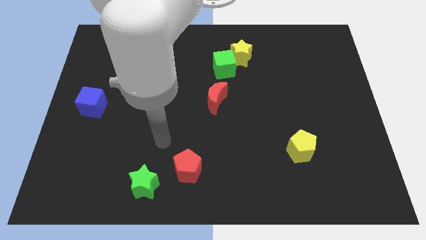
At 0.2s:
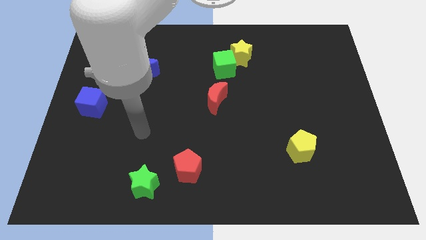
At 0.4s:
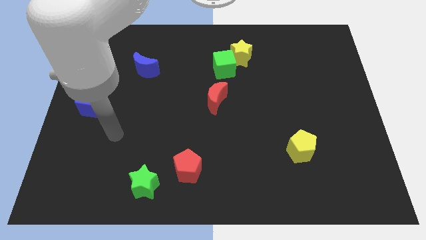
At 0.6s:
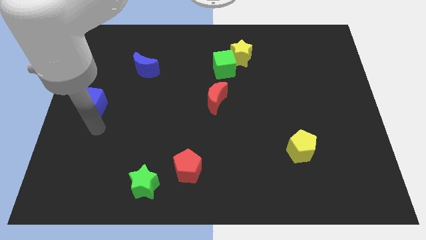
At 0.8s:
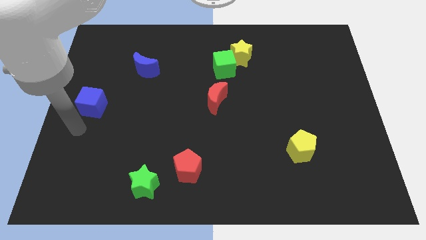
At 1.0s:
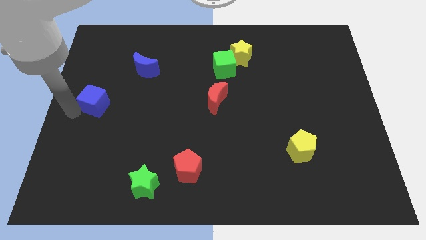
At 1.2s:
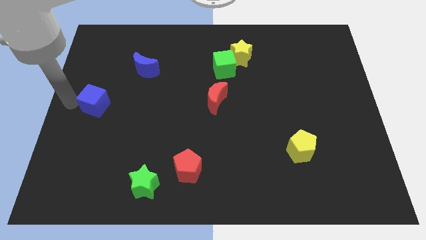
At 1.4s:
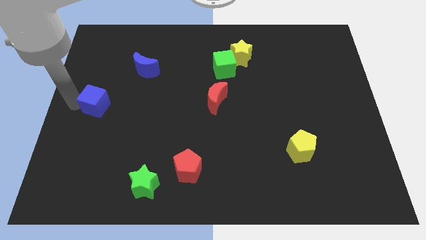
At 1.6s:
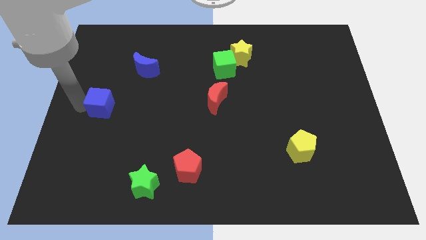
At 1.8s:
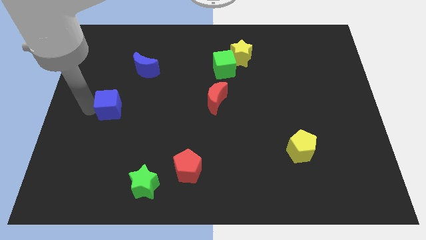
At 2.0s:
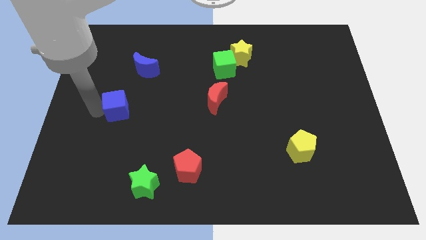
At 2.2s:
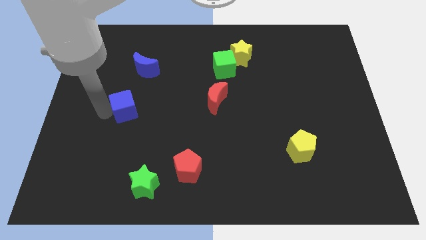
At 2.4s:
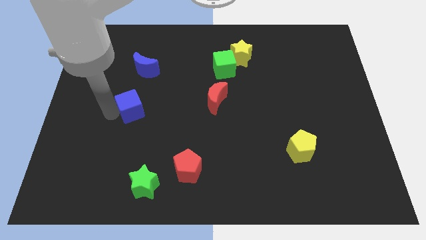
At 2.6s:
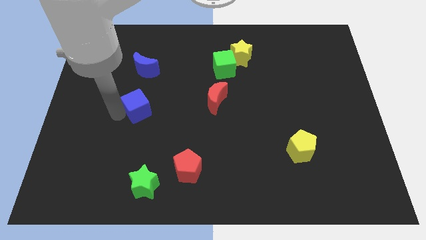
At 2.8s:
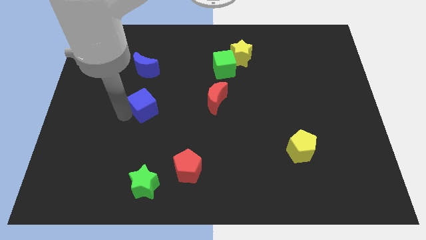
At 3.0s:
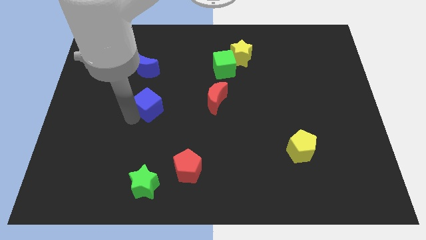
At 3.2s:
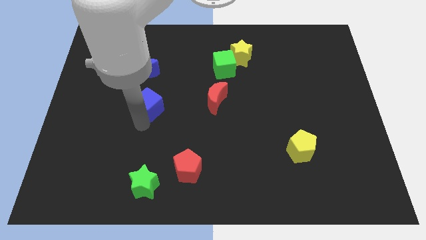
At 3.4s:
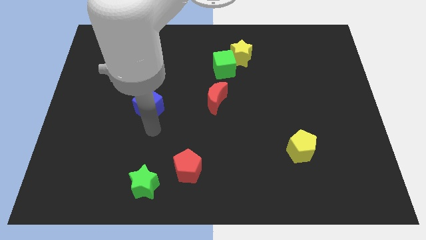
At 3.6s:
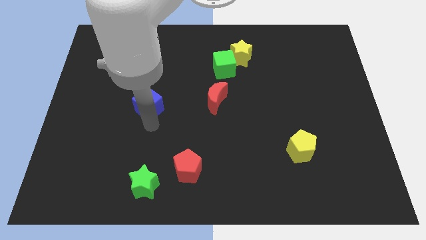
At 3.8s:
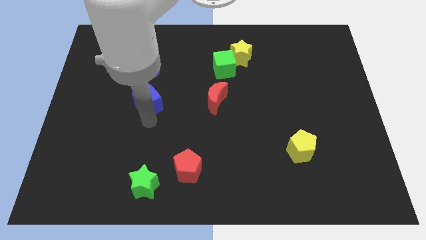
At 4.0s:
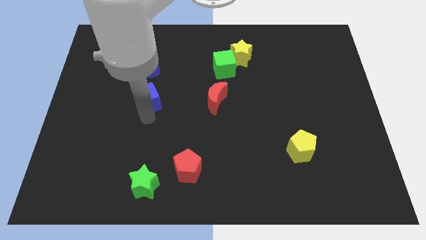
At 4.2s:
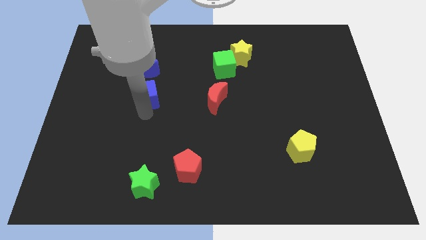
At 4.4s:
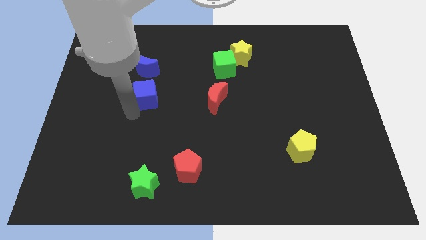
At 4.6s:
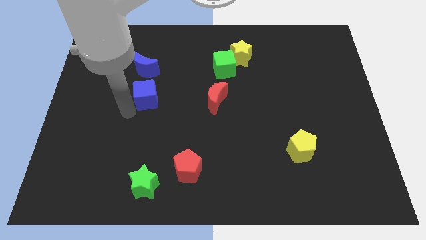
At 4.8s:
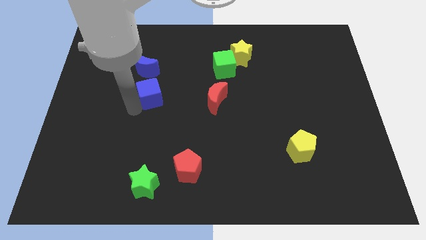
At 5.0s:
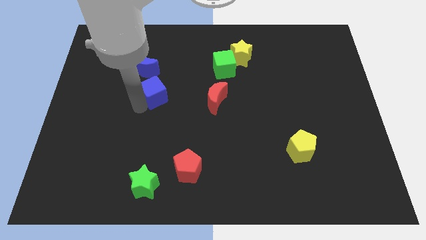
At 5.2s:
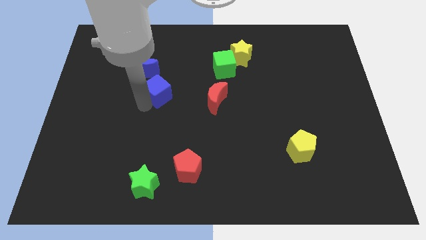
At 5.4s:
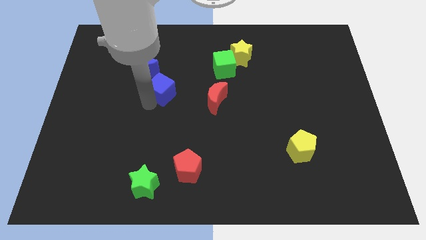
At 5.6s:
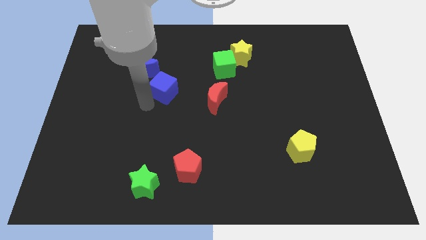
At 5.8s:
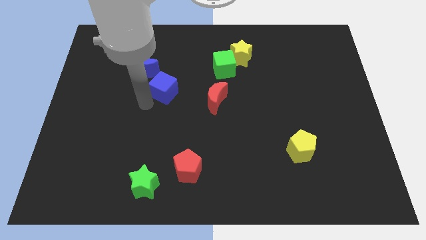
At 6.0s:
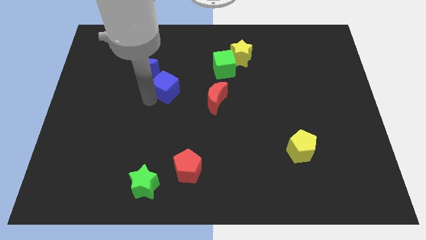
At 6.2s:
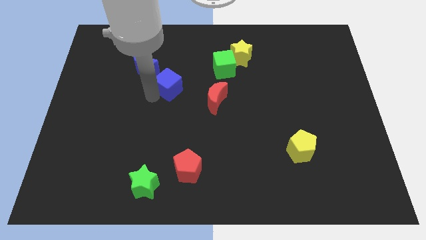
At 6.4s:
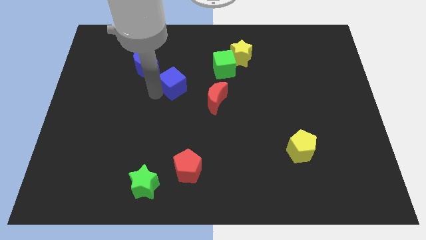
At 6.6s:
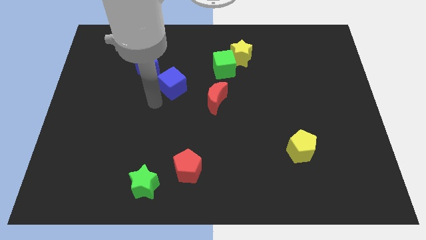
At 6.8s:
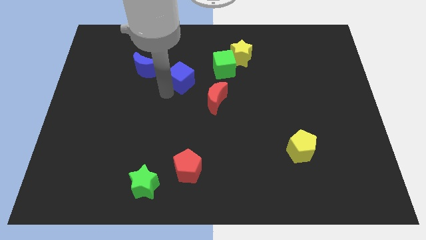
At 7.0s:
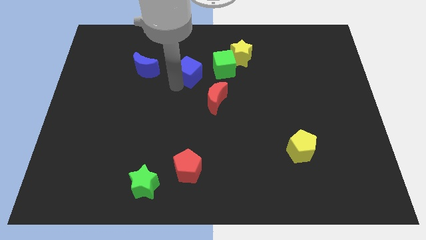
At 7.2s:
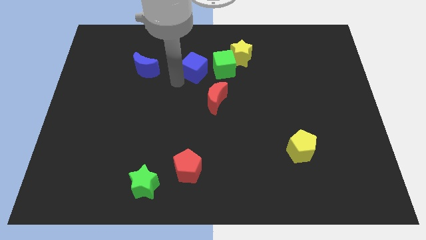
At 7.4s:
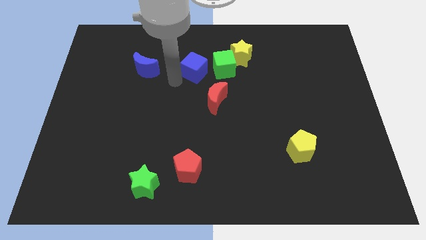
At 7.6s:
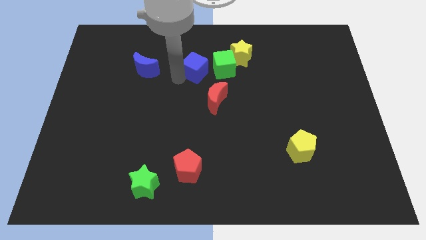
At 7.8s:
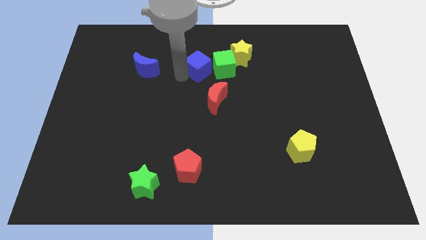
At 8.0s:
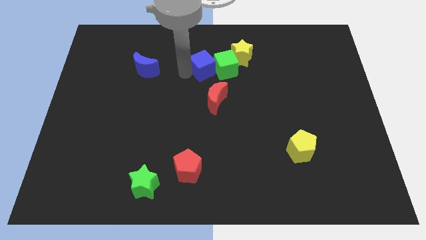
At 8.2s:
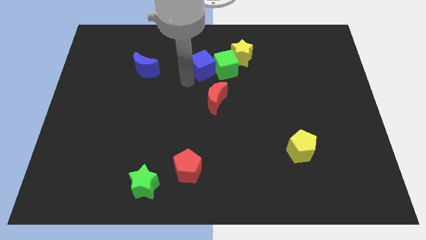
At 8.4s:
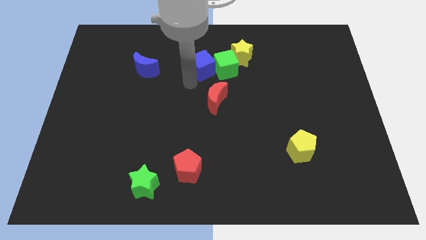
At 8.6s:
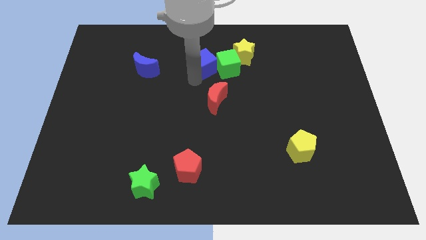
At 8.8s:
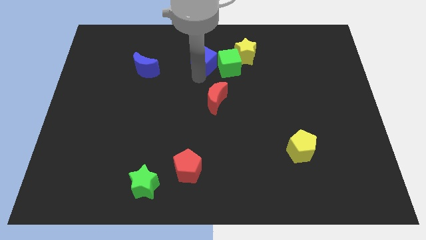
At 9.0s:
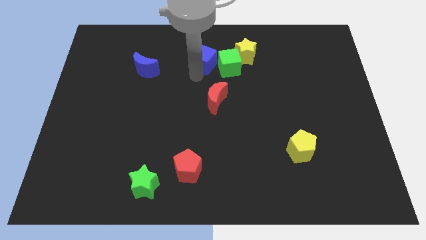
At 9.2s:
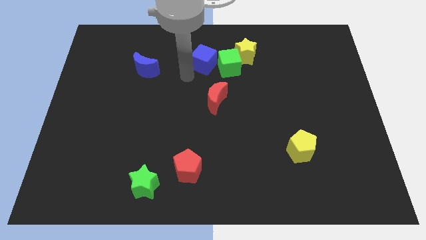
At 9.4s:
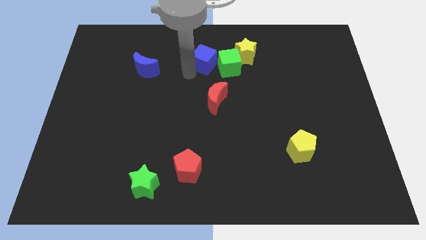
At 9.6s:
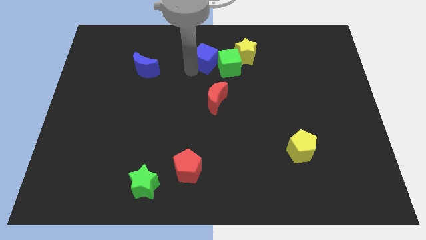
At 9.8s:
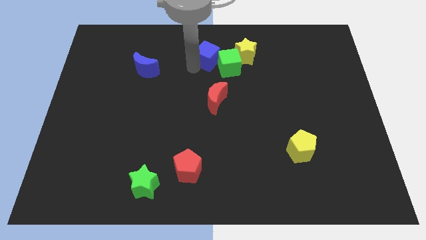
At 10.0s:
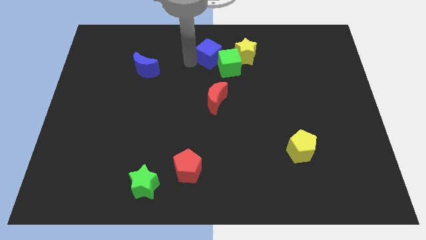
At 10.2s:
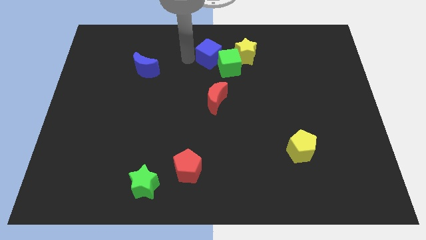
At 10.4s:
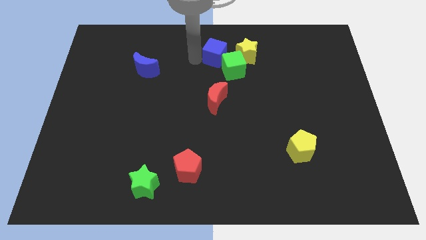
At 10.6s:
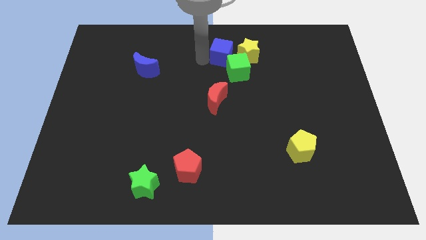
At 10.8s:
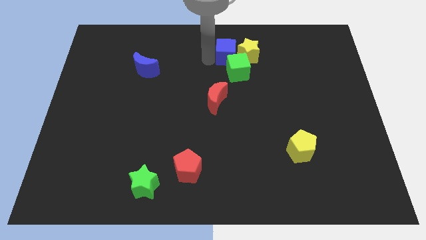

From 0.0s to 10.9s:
put the blue cube towards the yellow star

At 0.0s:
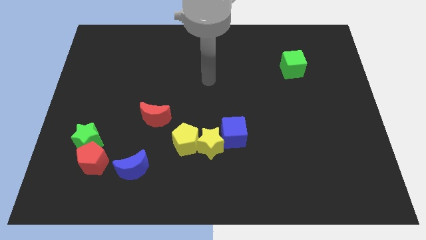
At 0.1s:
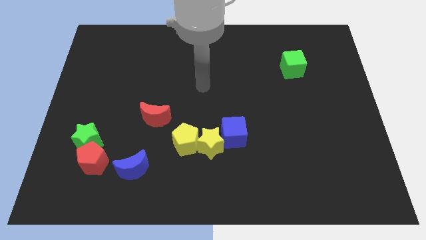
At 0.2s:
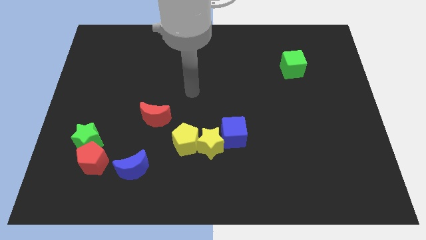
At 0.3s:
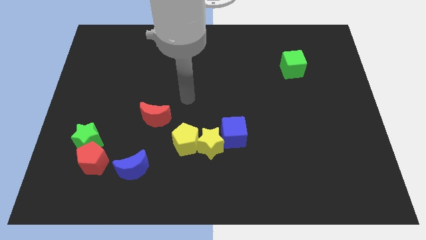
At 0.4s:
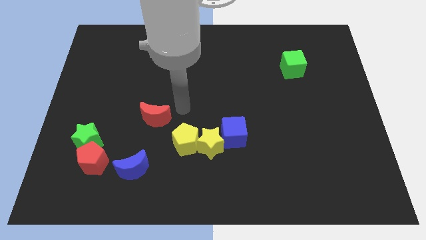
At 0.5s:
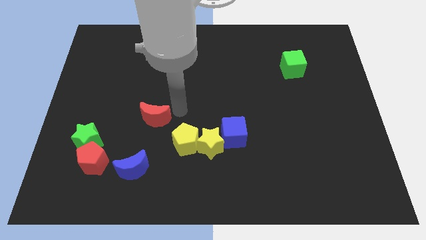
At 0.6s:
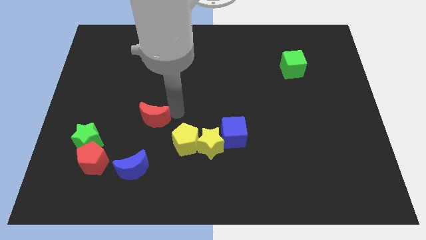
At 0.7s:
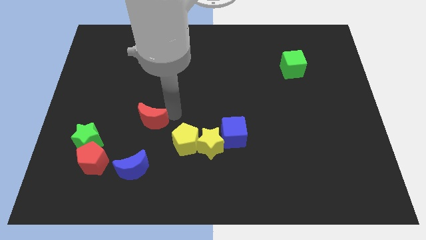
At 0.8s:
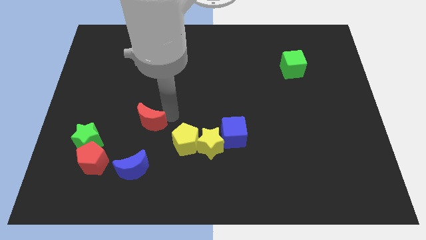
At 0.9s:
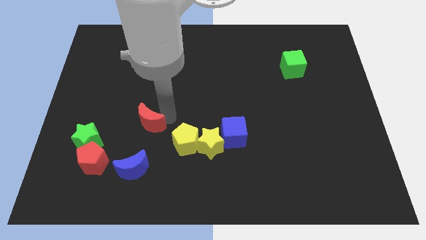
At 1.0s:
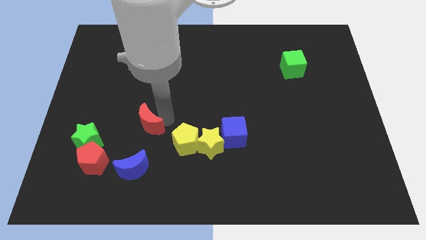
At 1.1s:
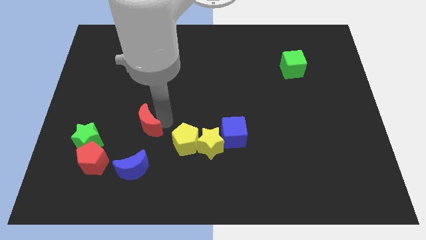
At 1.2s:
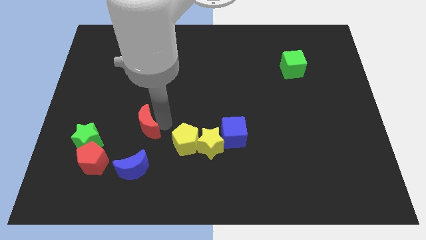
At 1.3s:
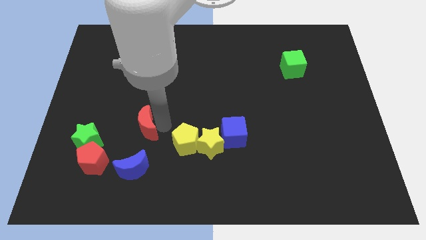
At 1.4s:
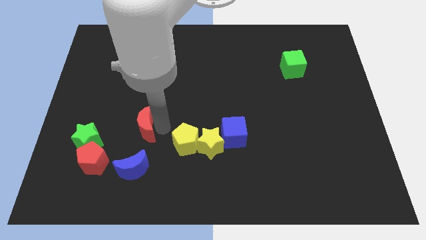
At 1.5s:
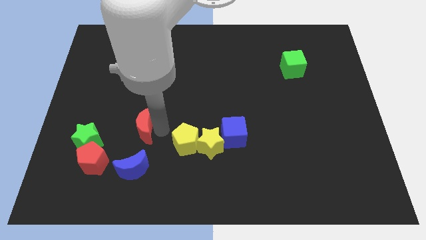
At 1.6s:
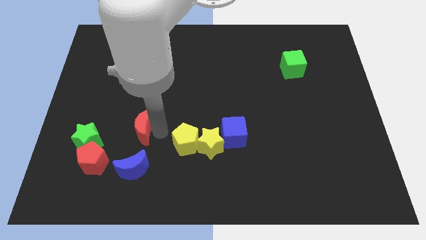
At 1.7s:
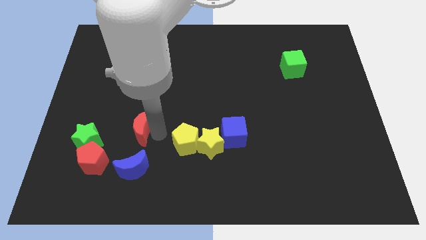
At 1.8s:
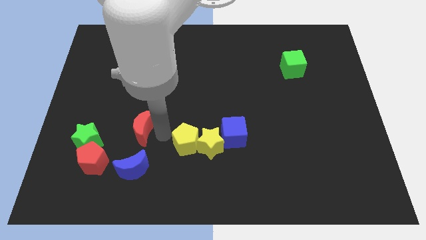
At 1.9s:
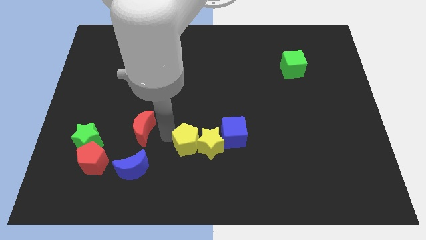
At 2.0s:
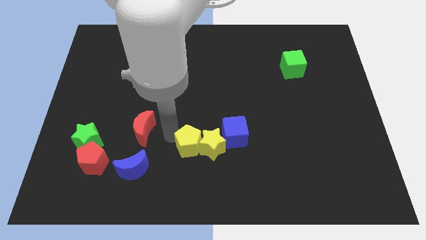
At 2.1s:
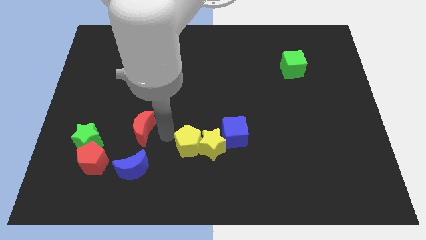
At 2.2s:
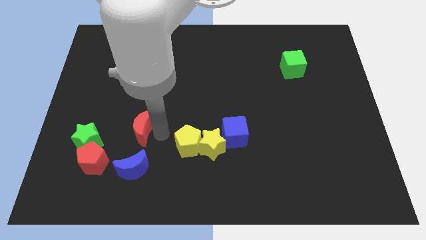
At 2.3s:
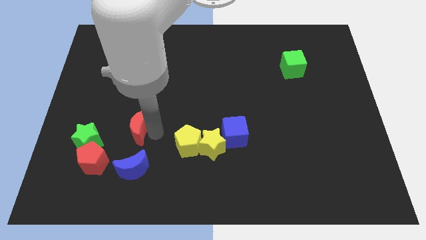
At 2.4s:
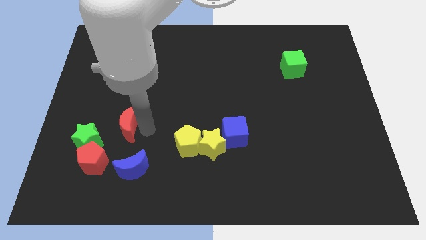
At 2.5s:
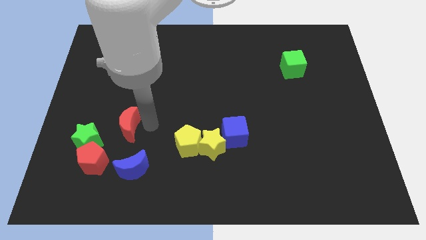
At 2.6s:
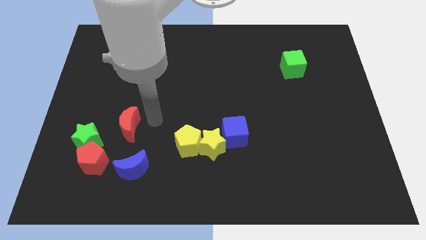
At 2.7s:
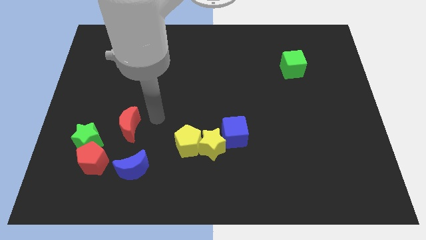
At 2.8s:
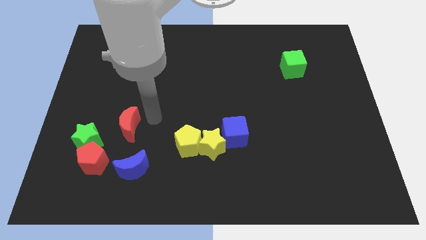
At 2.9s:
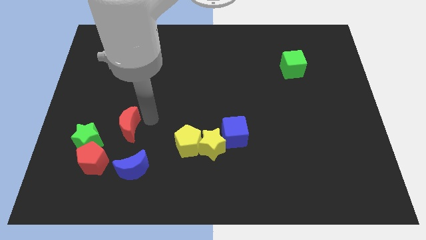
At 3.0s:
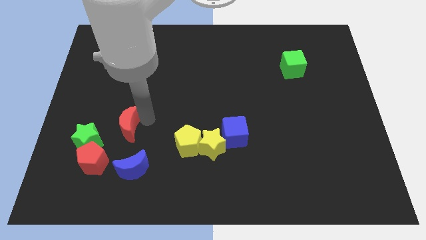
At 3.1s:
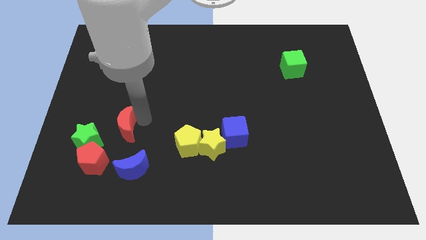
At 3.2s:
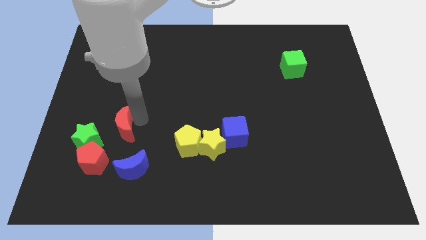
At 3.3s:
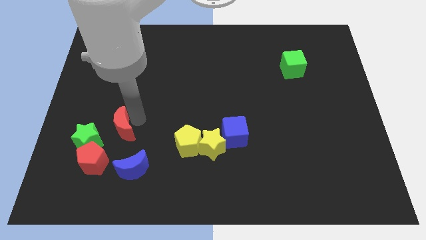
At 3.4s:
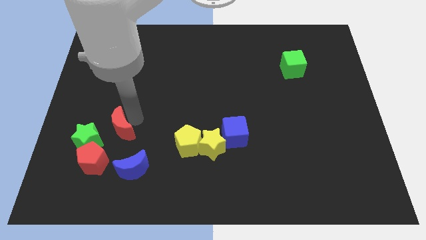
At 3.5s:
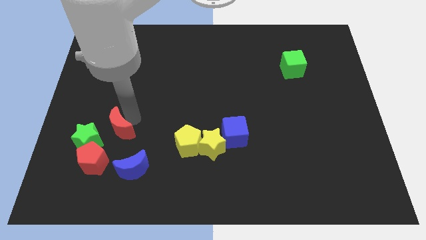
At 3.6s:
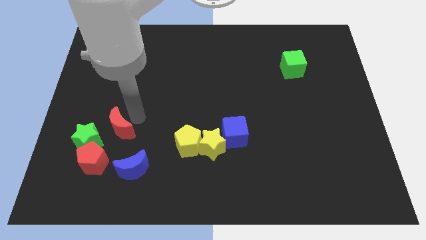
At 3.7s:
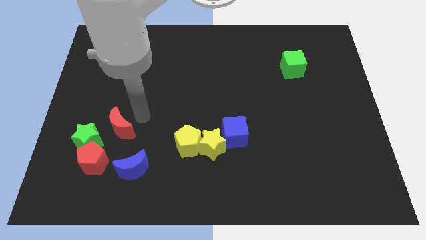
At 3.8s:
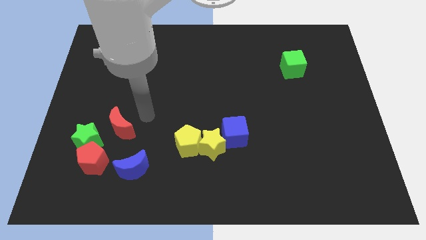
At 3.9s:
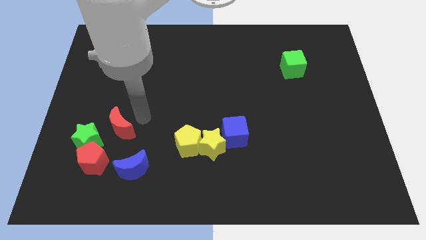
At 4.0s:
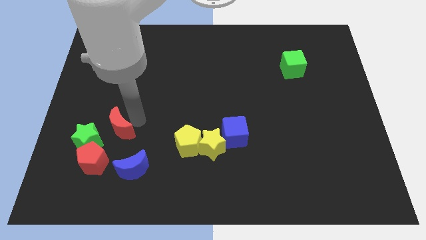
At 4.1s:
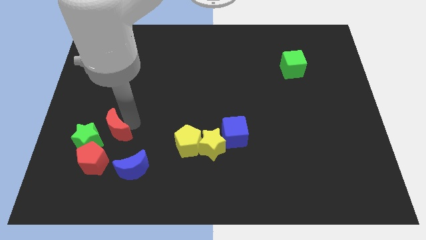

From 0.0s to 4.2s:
move the red moon close to the green star
